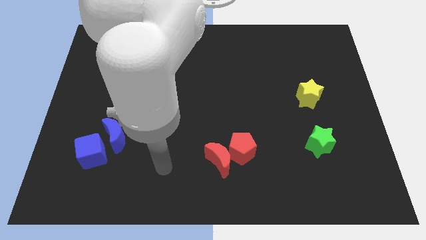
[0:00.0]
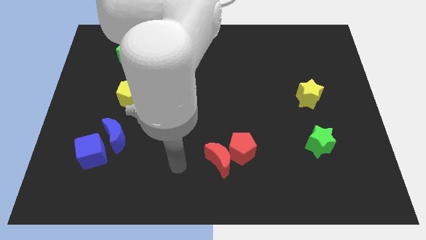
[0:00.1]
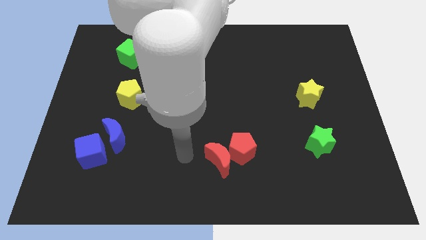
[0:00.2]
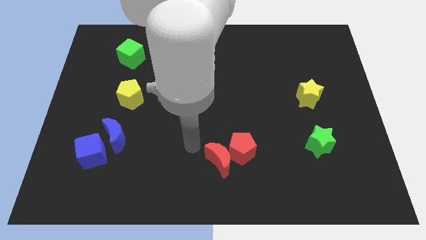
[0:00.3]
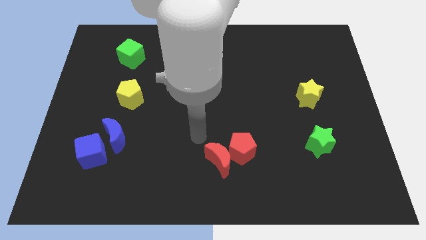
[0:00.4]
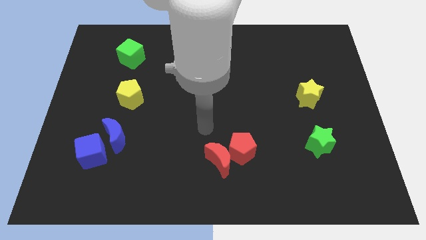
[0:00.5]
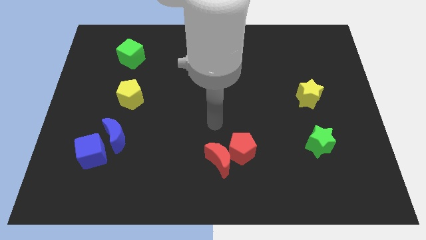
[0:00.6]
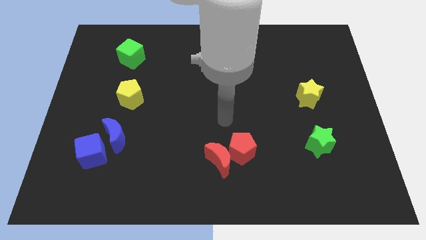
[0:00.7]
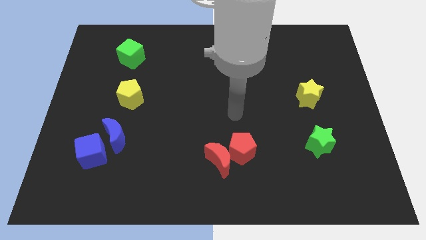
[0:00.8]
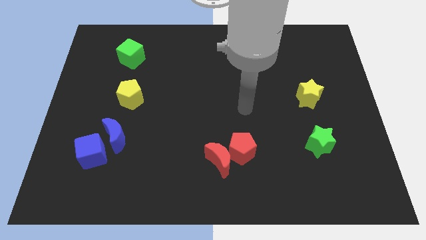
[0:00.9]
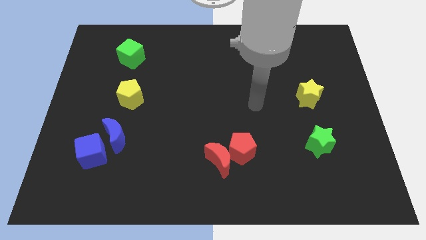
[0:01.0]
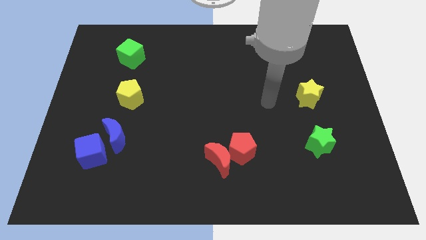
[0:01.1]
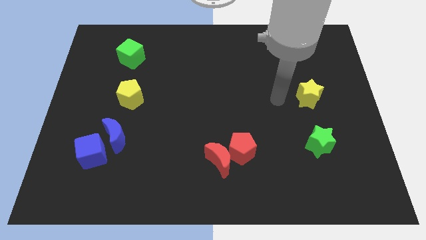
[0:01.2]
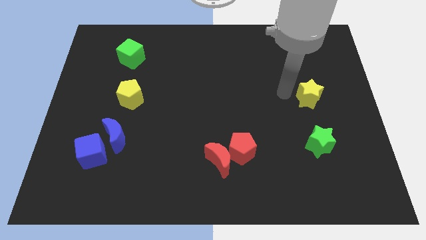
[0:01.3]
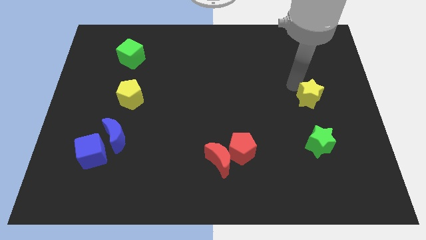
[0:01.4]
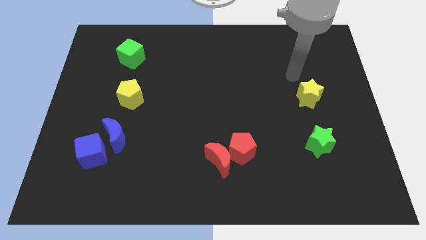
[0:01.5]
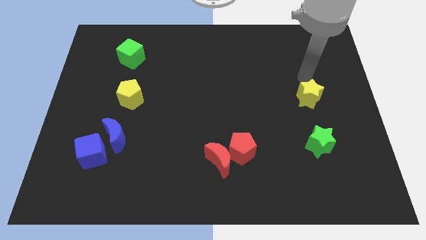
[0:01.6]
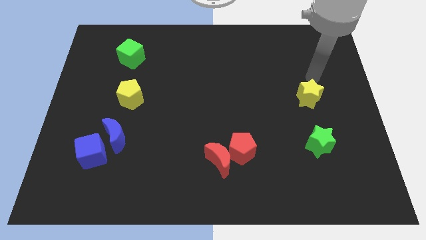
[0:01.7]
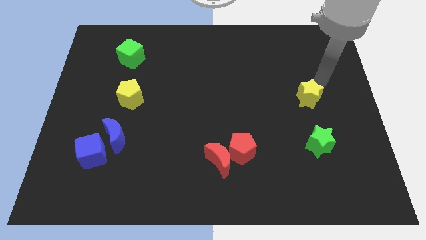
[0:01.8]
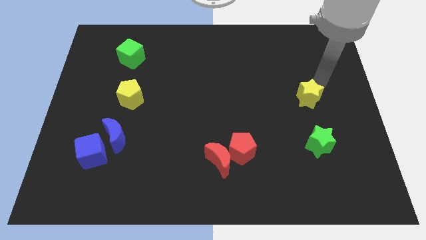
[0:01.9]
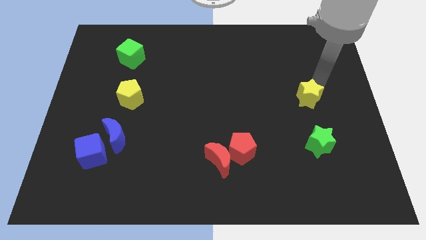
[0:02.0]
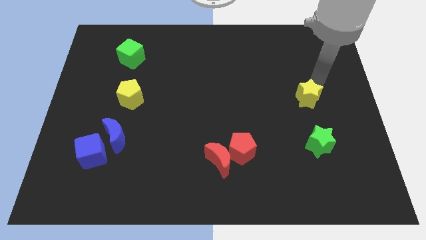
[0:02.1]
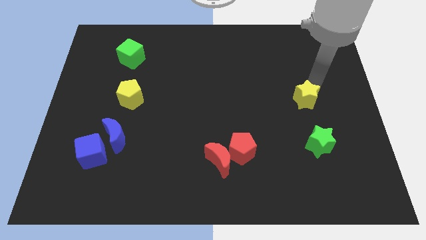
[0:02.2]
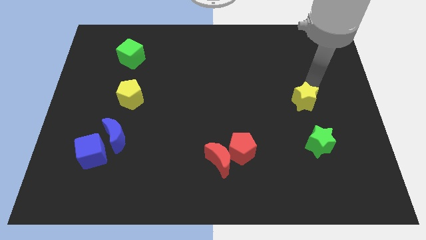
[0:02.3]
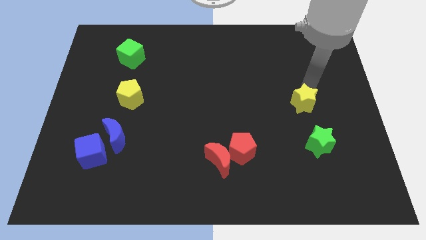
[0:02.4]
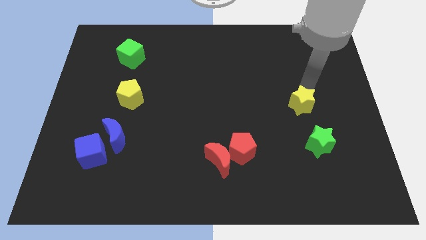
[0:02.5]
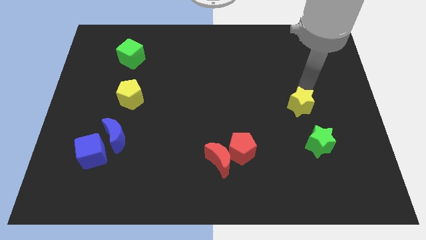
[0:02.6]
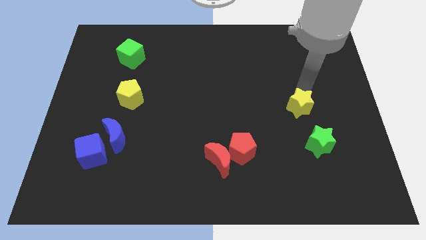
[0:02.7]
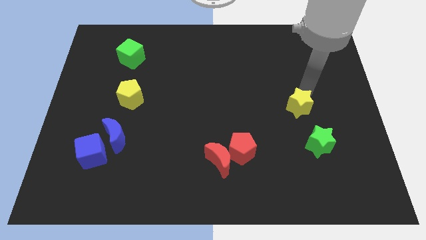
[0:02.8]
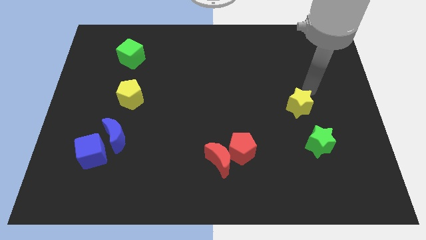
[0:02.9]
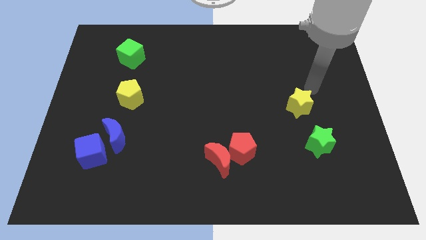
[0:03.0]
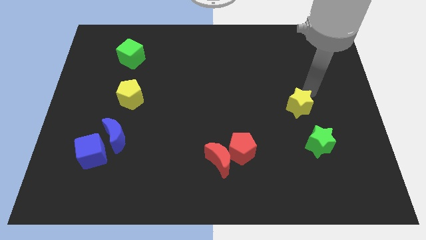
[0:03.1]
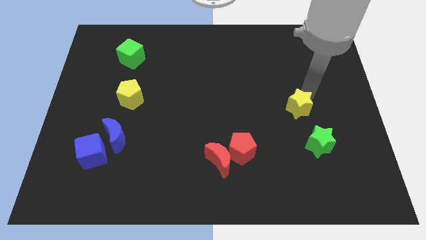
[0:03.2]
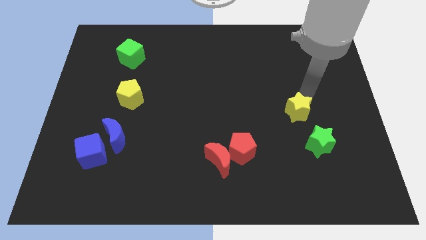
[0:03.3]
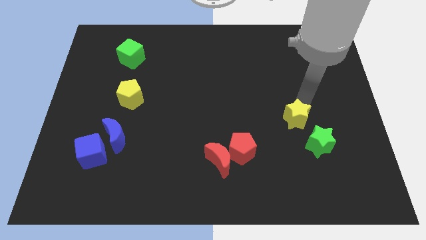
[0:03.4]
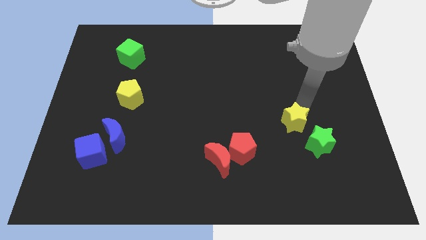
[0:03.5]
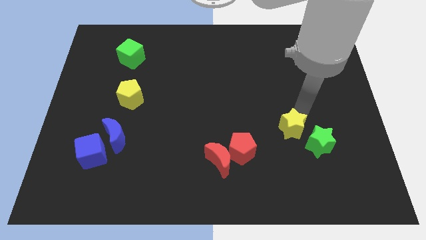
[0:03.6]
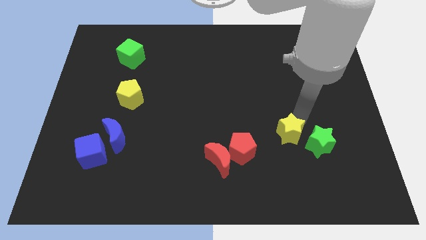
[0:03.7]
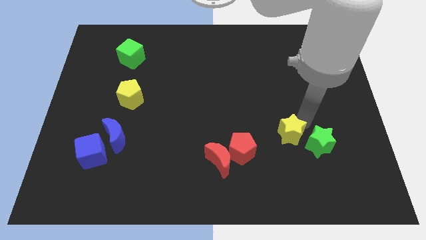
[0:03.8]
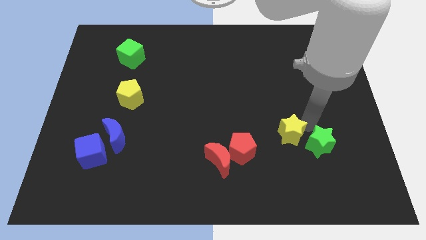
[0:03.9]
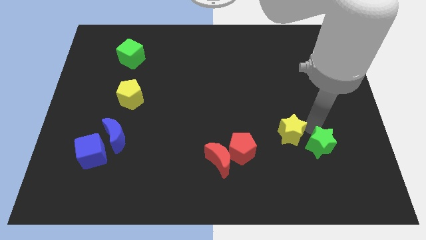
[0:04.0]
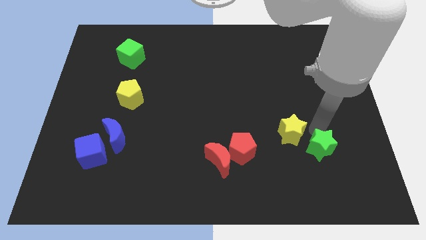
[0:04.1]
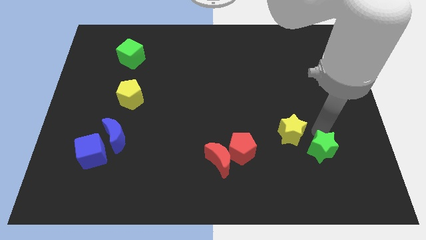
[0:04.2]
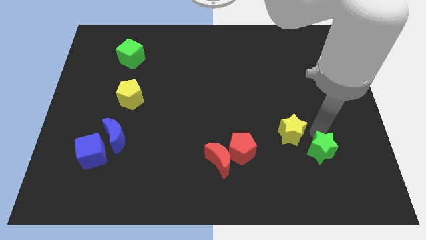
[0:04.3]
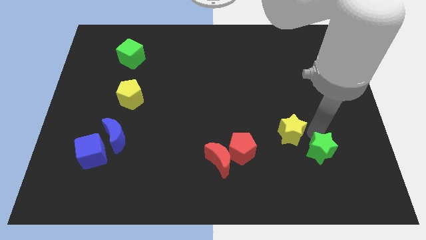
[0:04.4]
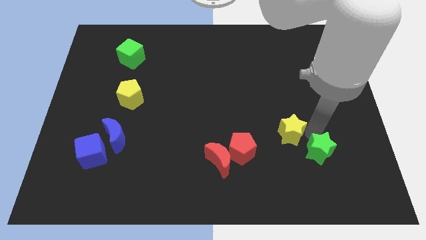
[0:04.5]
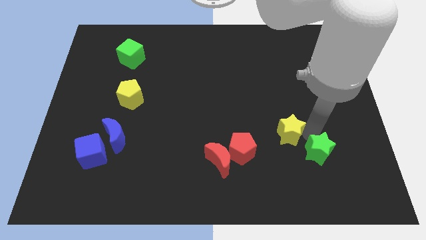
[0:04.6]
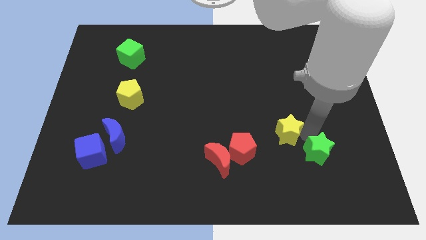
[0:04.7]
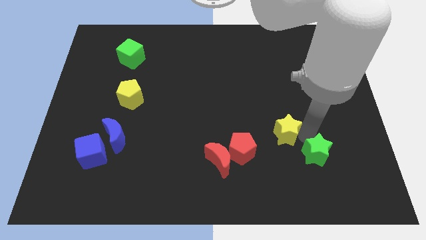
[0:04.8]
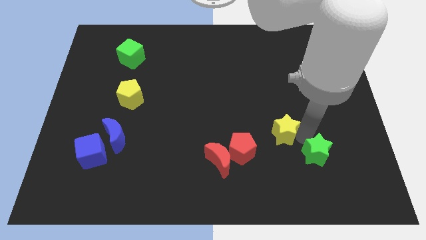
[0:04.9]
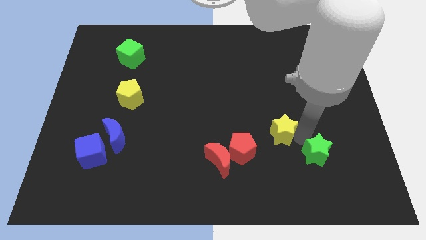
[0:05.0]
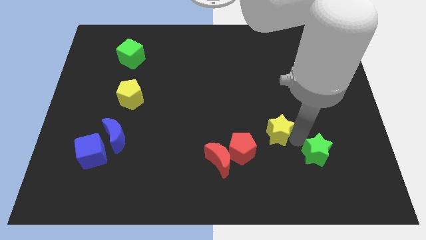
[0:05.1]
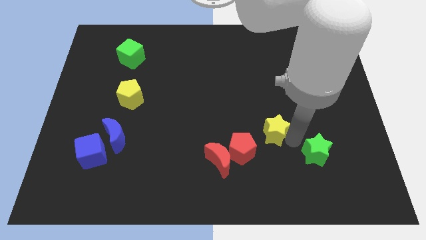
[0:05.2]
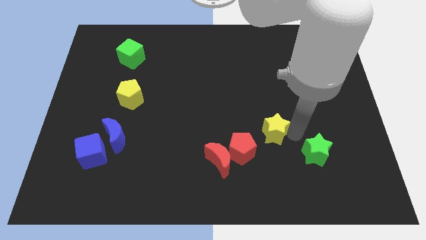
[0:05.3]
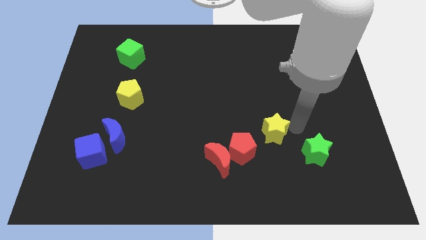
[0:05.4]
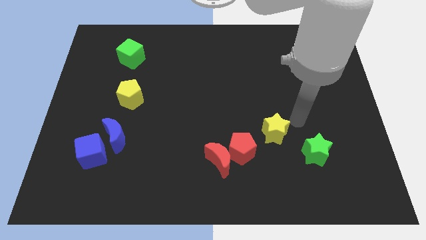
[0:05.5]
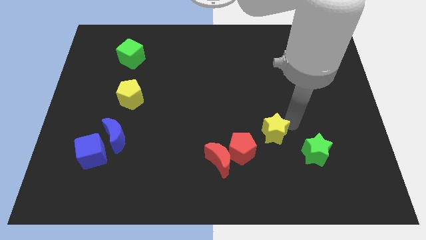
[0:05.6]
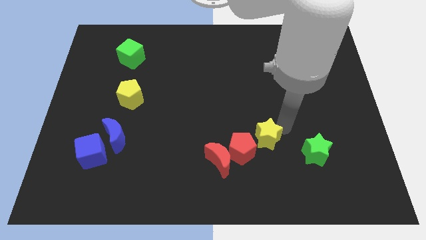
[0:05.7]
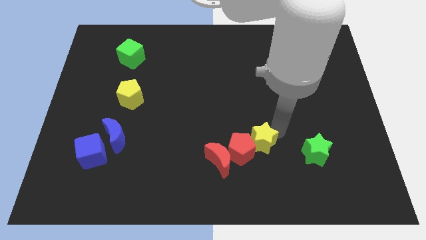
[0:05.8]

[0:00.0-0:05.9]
slide the yellow star close to the red pentagon

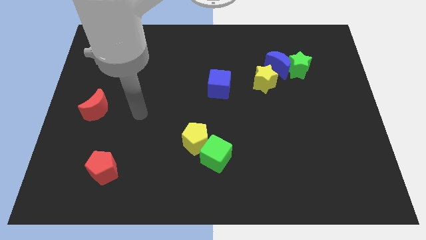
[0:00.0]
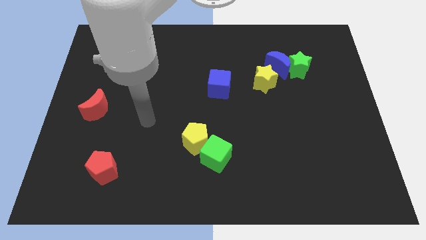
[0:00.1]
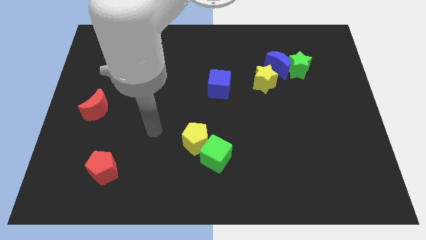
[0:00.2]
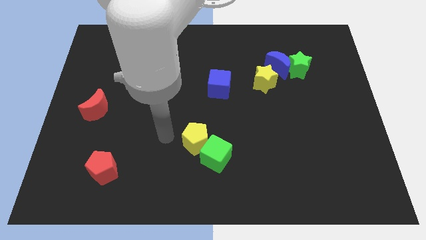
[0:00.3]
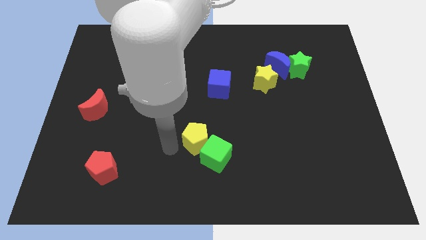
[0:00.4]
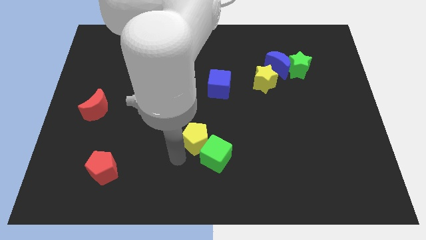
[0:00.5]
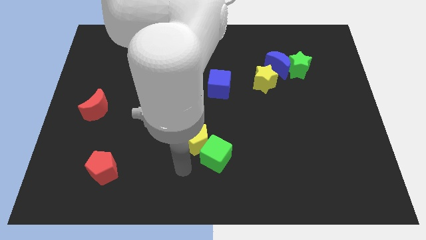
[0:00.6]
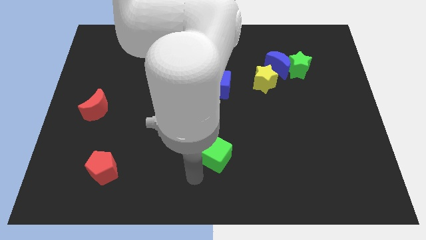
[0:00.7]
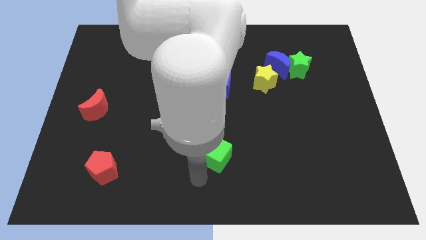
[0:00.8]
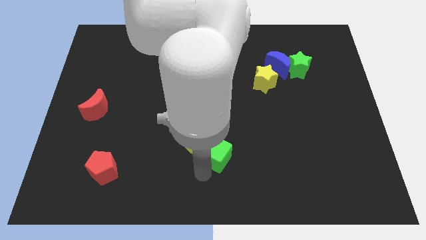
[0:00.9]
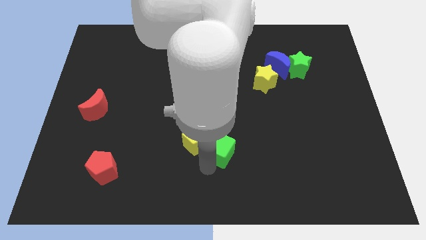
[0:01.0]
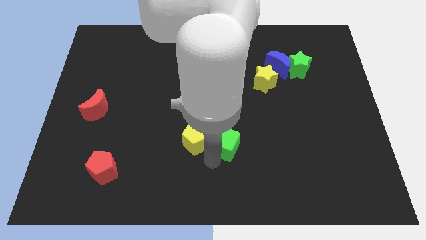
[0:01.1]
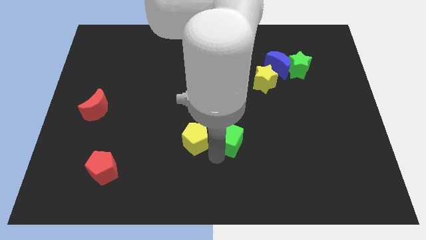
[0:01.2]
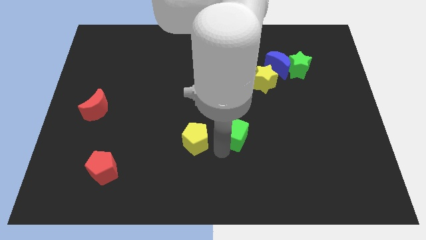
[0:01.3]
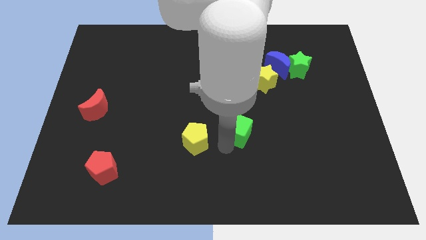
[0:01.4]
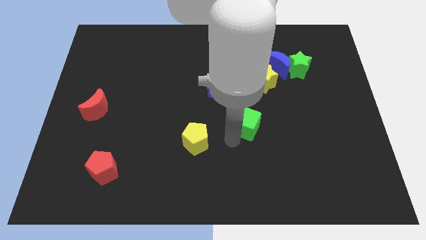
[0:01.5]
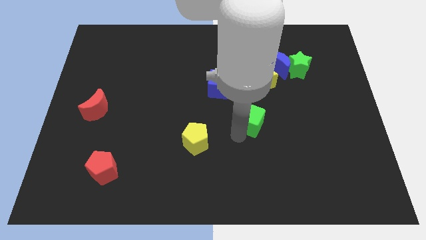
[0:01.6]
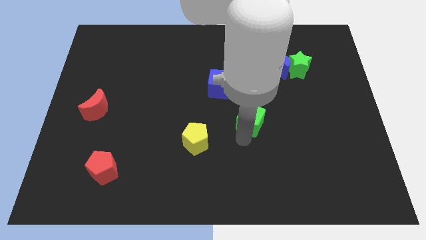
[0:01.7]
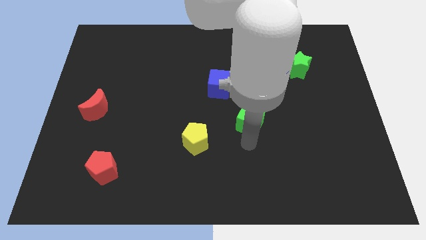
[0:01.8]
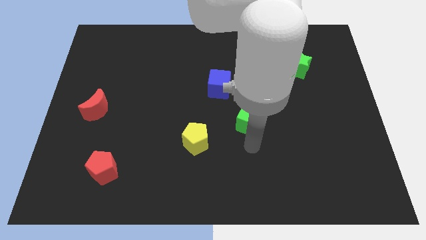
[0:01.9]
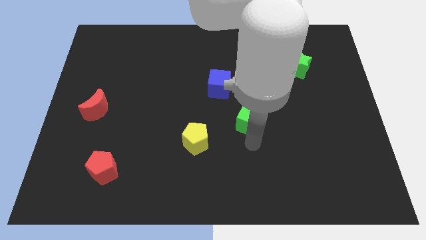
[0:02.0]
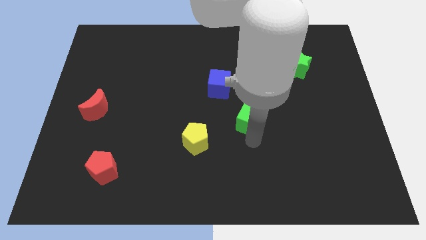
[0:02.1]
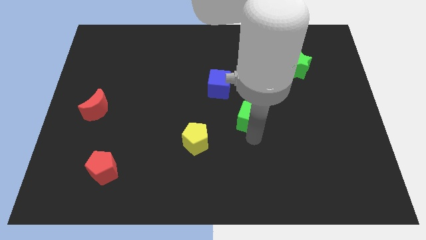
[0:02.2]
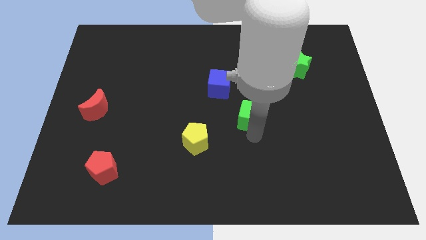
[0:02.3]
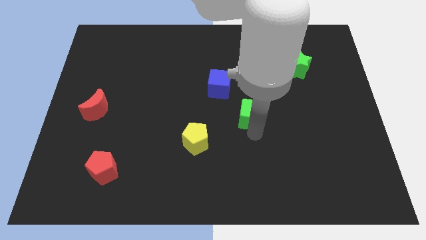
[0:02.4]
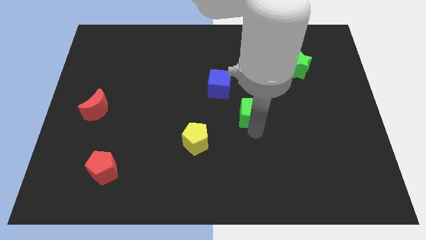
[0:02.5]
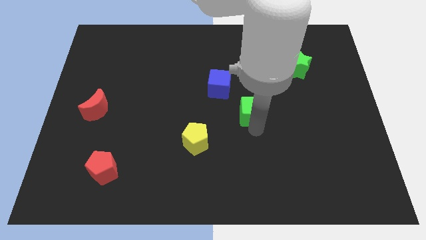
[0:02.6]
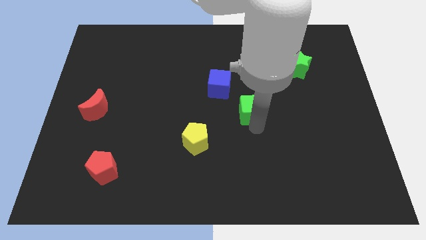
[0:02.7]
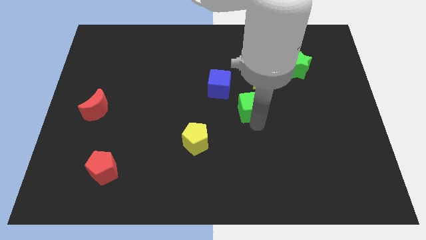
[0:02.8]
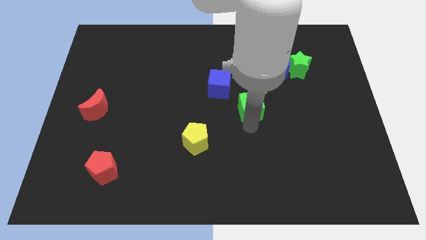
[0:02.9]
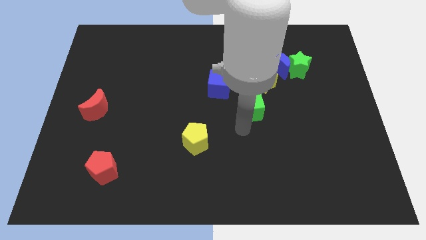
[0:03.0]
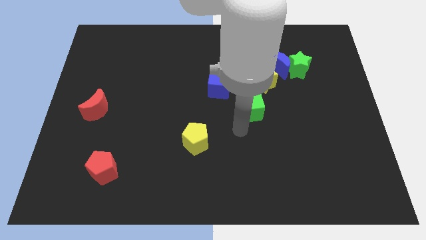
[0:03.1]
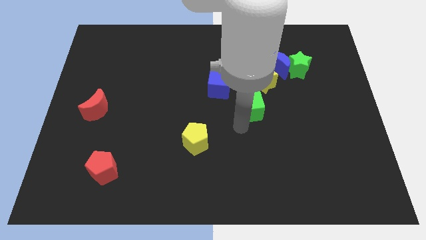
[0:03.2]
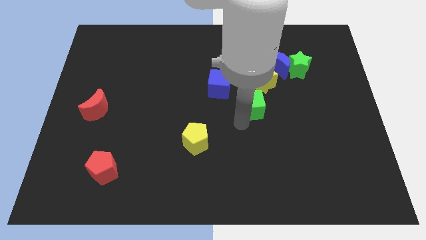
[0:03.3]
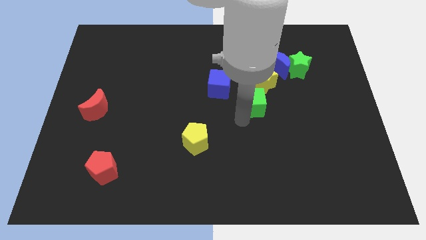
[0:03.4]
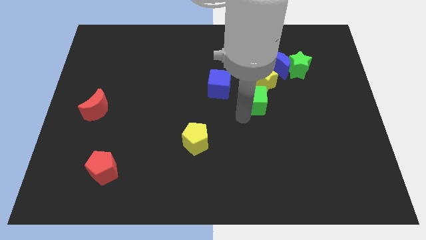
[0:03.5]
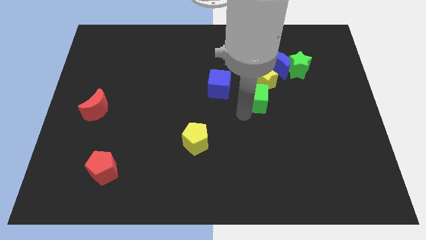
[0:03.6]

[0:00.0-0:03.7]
push the green cube next to the yellow star
